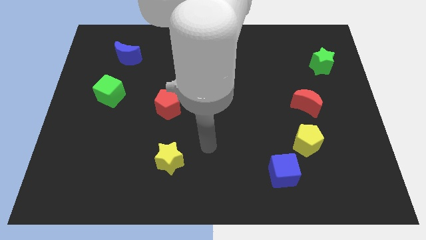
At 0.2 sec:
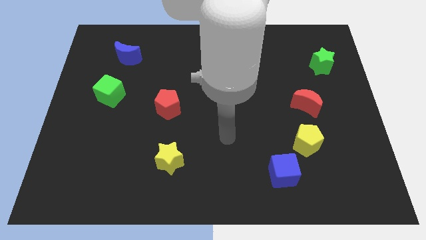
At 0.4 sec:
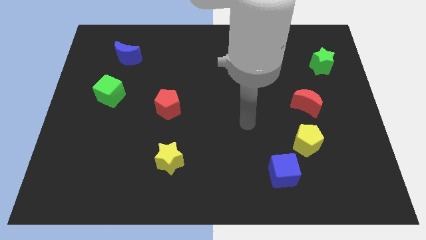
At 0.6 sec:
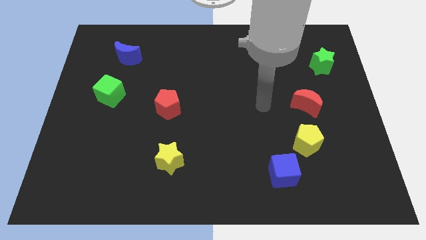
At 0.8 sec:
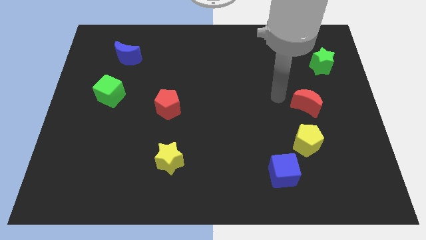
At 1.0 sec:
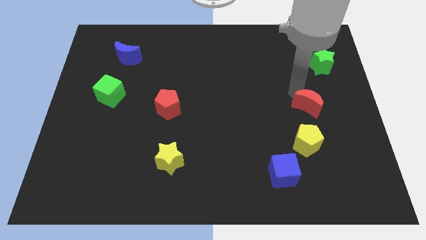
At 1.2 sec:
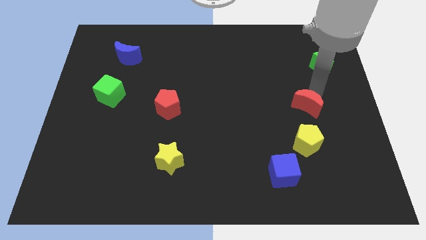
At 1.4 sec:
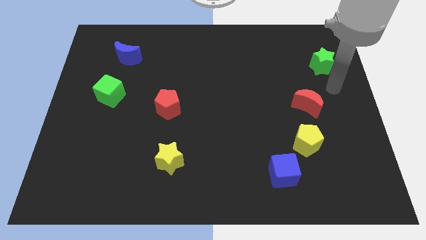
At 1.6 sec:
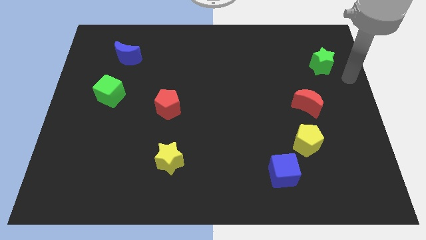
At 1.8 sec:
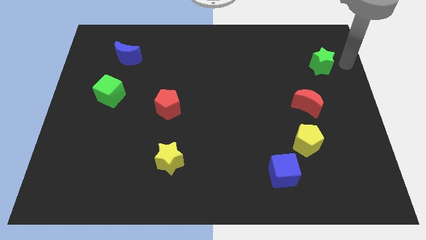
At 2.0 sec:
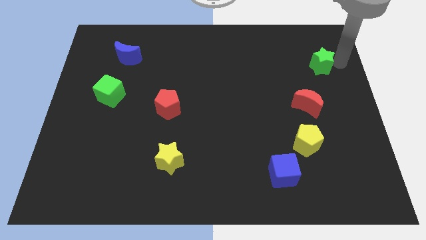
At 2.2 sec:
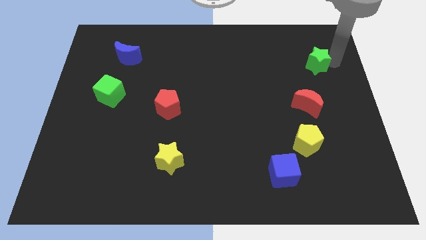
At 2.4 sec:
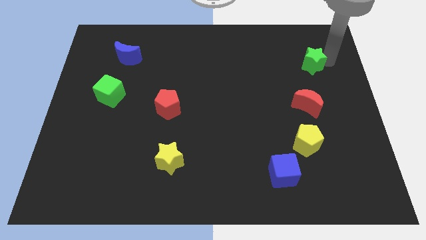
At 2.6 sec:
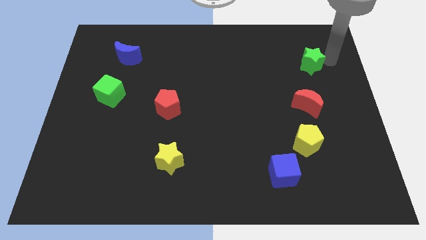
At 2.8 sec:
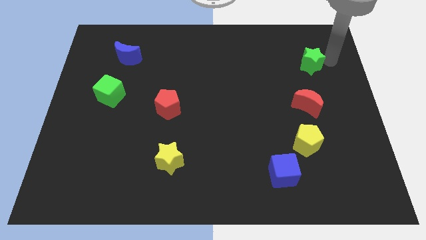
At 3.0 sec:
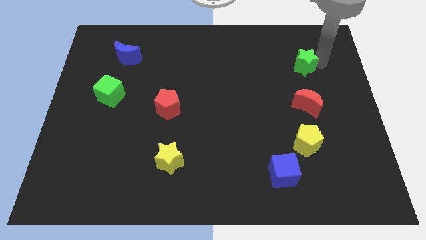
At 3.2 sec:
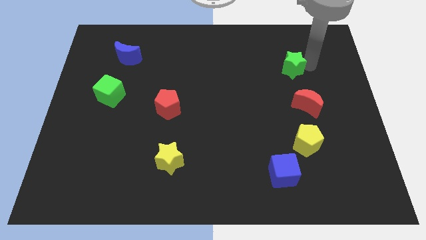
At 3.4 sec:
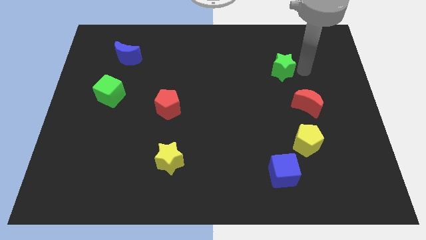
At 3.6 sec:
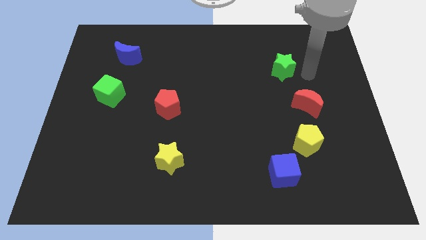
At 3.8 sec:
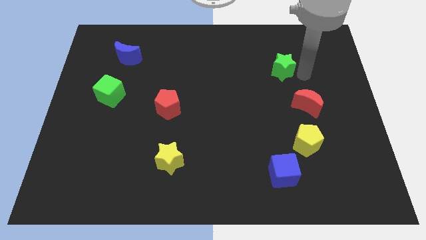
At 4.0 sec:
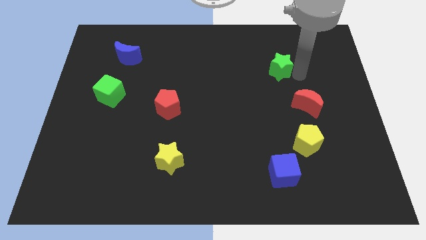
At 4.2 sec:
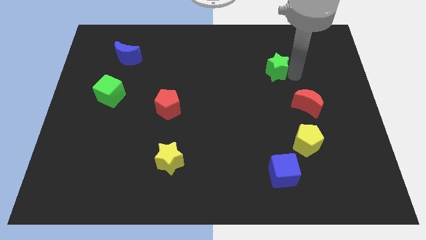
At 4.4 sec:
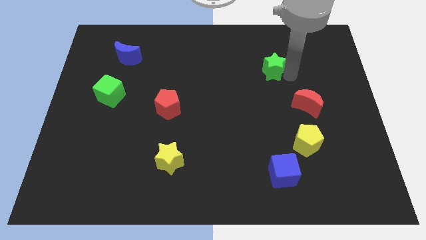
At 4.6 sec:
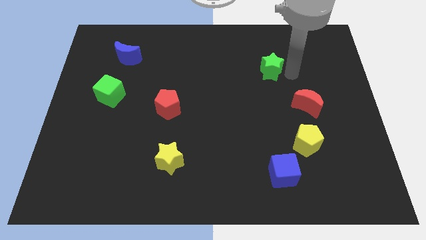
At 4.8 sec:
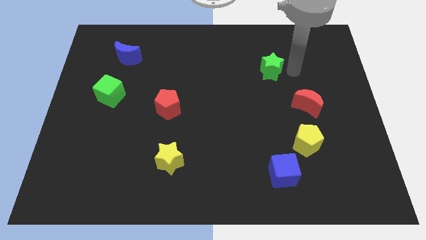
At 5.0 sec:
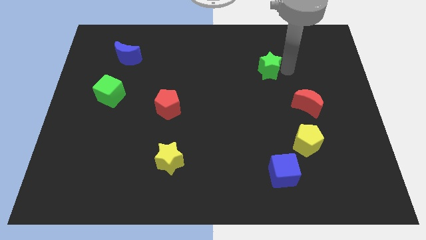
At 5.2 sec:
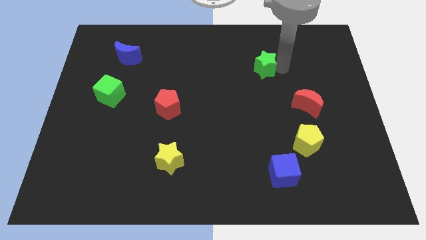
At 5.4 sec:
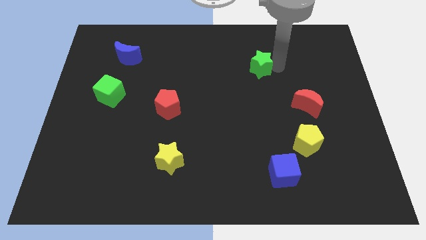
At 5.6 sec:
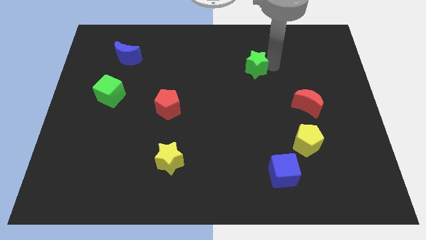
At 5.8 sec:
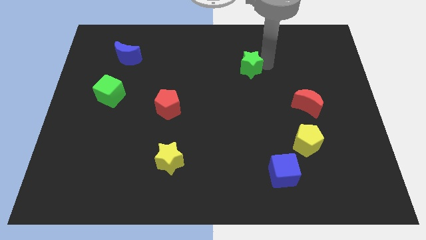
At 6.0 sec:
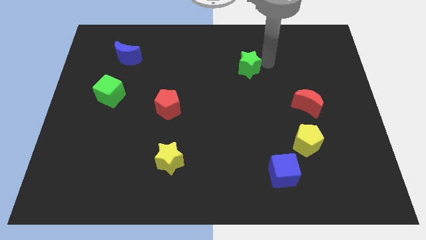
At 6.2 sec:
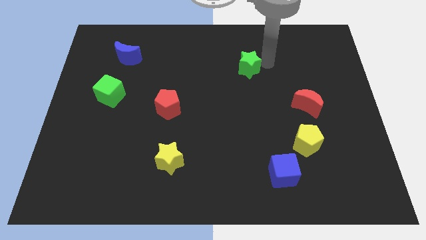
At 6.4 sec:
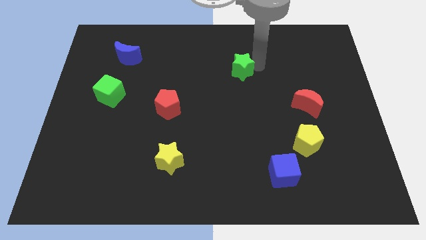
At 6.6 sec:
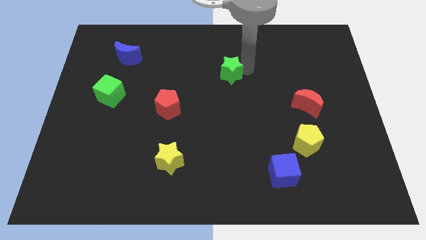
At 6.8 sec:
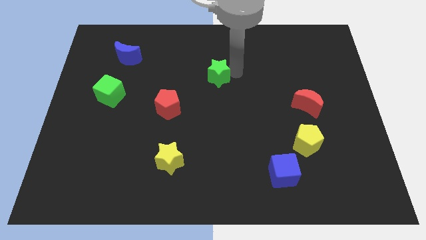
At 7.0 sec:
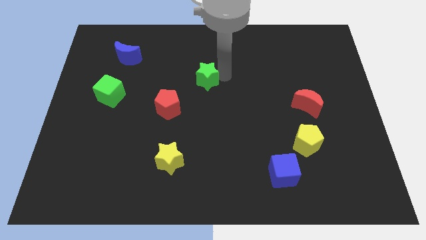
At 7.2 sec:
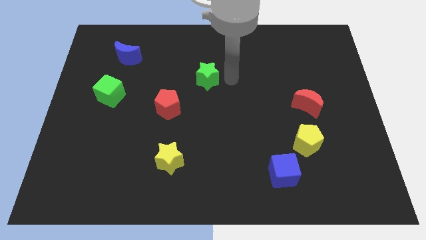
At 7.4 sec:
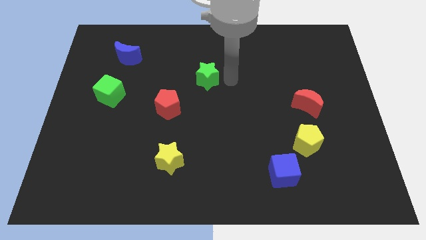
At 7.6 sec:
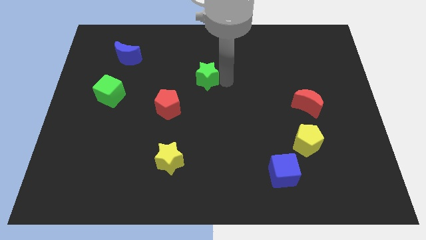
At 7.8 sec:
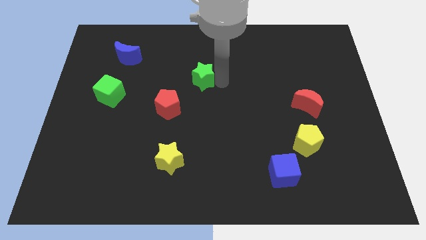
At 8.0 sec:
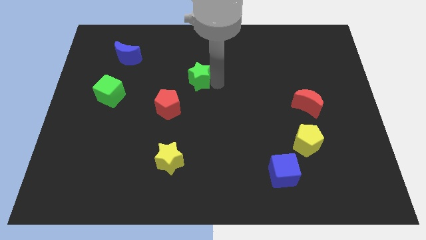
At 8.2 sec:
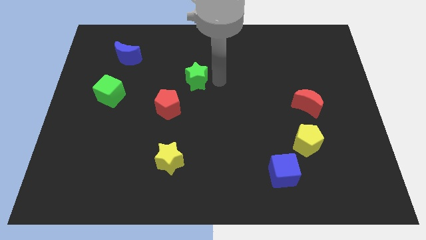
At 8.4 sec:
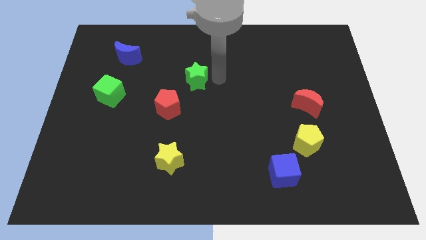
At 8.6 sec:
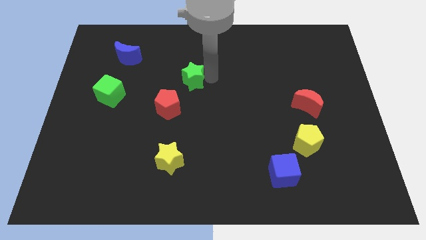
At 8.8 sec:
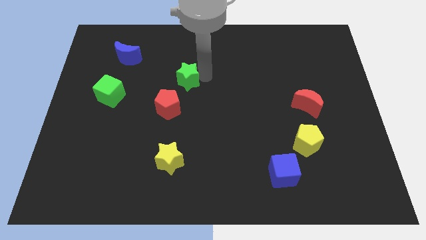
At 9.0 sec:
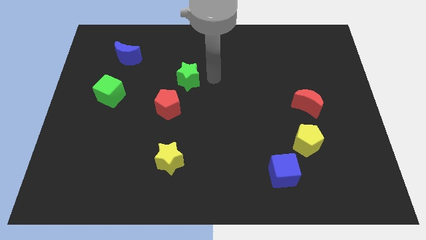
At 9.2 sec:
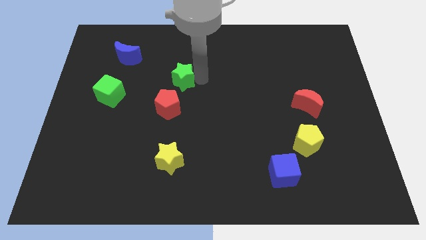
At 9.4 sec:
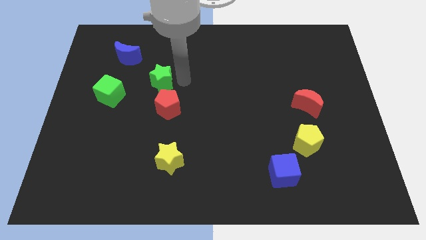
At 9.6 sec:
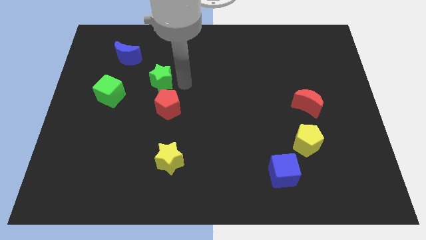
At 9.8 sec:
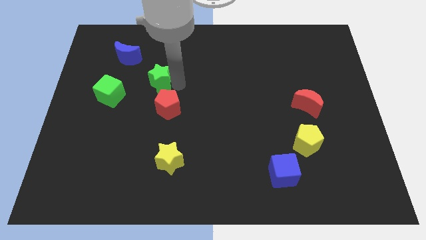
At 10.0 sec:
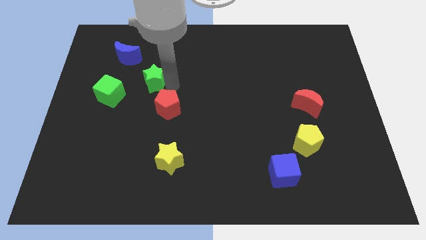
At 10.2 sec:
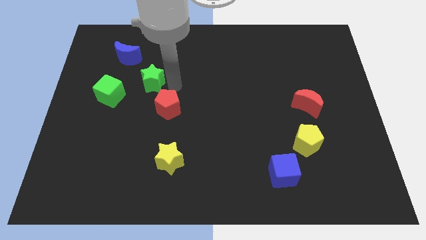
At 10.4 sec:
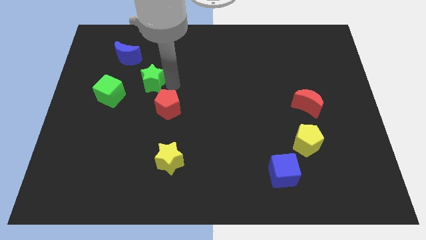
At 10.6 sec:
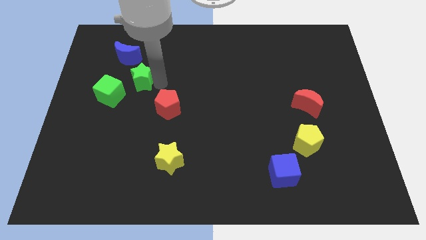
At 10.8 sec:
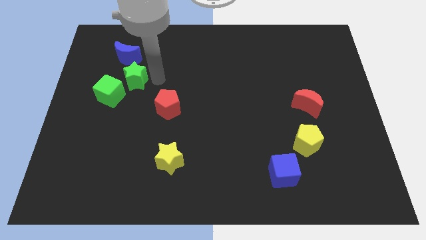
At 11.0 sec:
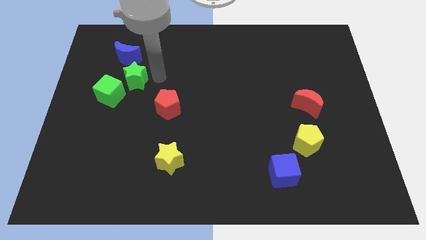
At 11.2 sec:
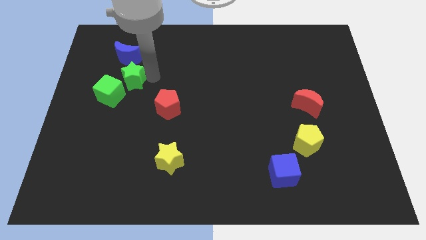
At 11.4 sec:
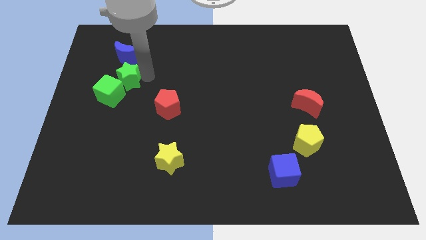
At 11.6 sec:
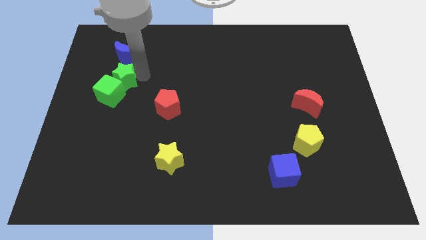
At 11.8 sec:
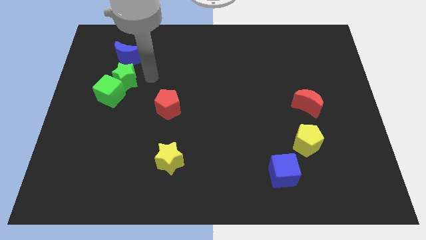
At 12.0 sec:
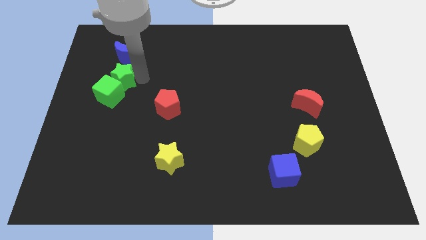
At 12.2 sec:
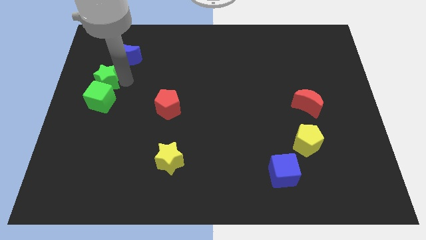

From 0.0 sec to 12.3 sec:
move the green star to the left side of the board
